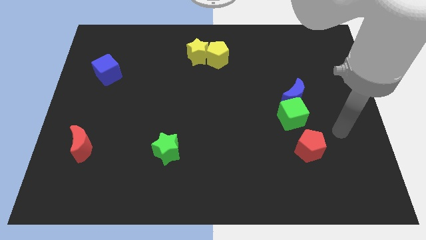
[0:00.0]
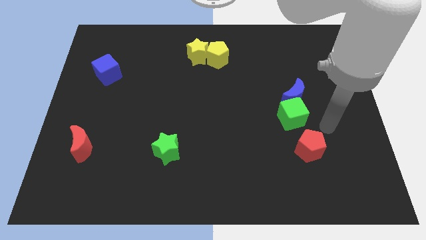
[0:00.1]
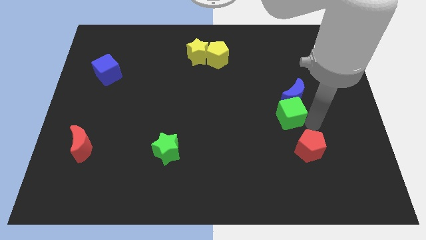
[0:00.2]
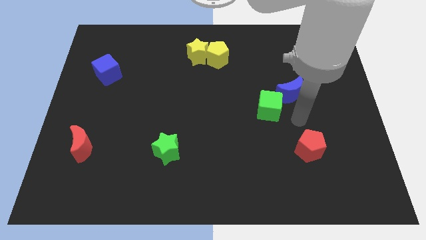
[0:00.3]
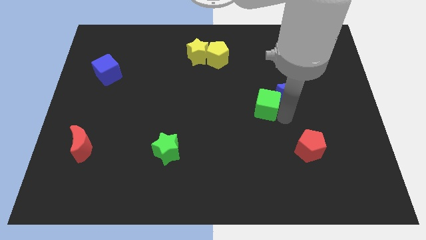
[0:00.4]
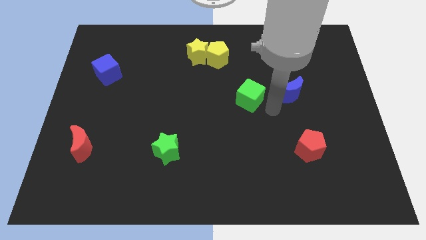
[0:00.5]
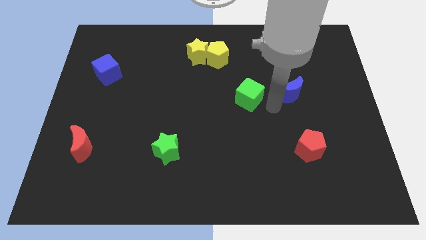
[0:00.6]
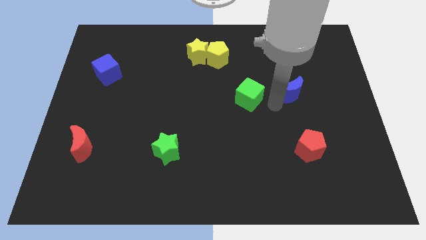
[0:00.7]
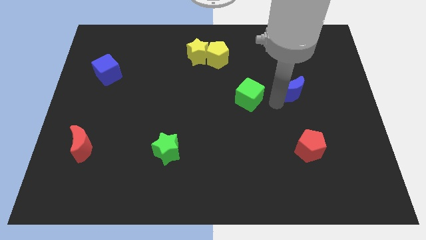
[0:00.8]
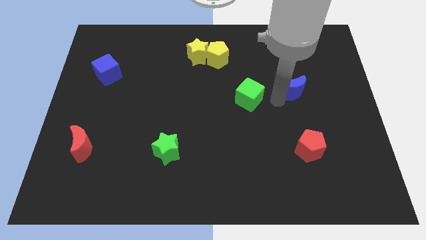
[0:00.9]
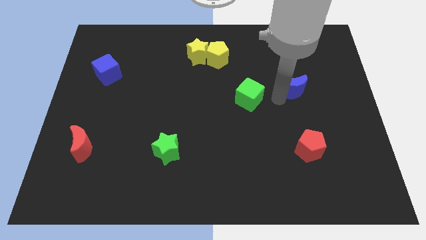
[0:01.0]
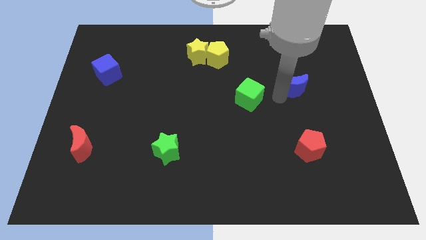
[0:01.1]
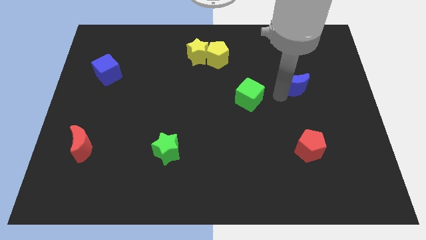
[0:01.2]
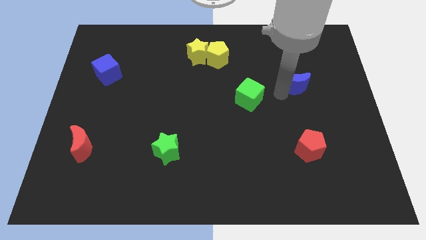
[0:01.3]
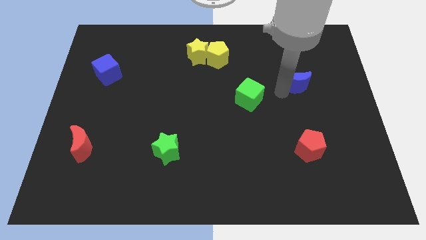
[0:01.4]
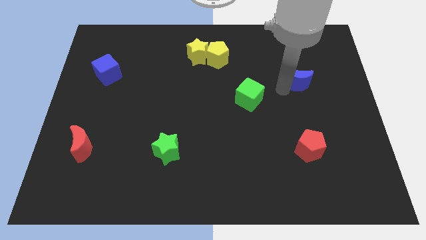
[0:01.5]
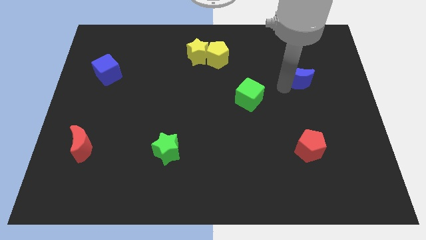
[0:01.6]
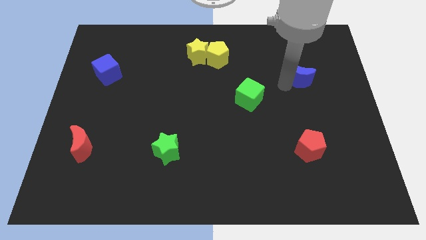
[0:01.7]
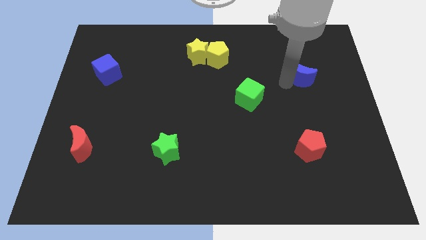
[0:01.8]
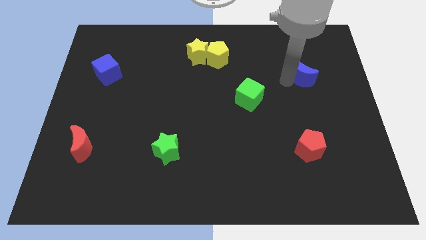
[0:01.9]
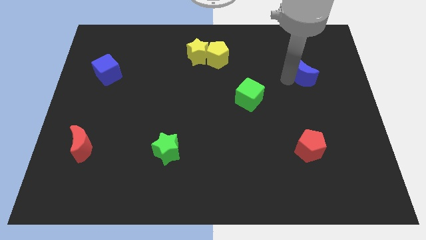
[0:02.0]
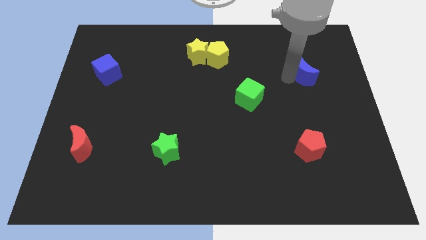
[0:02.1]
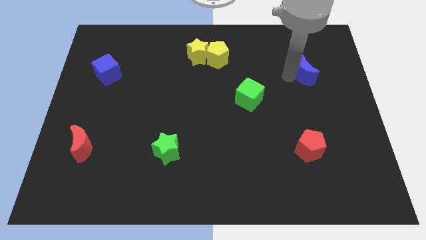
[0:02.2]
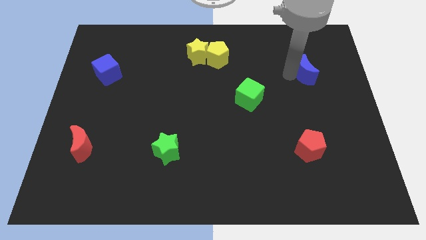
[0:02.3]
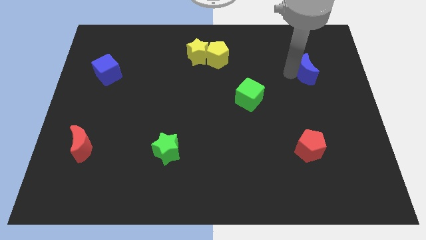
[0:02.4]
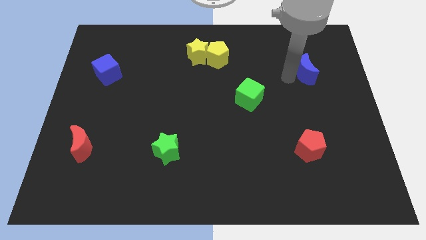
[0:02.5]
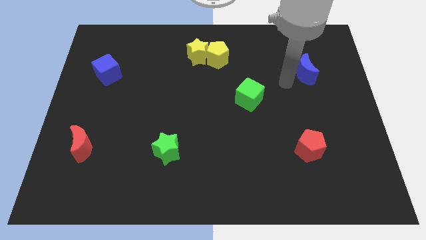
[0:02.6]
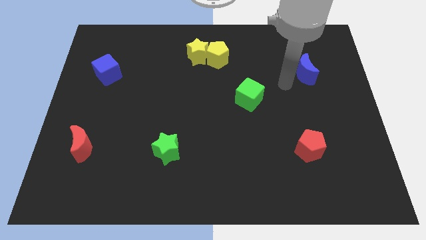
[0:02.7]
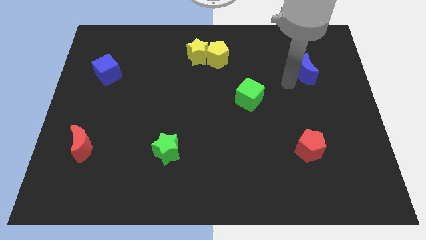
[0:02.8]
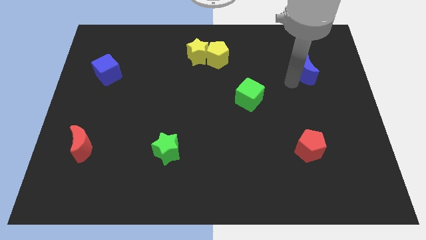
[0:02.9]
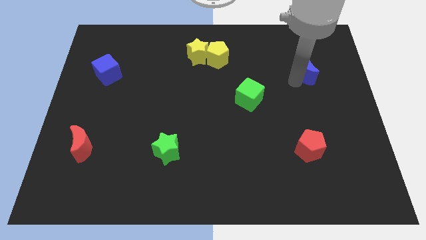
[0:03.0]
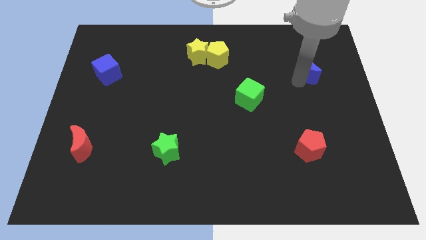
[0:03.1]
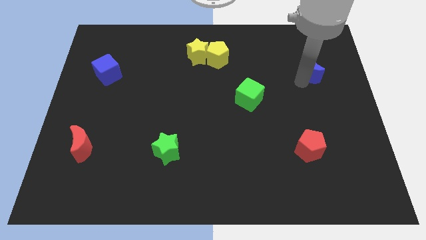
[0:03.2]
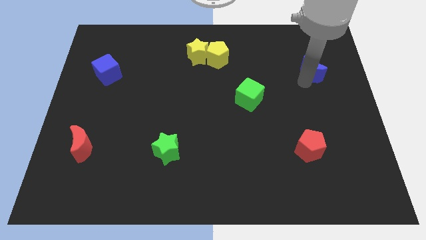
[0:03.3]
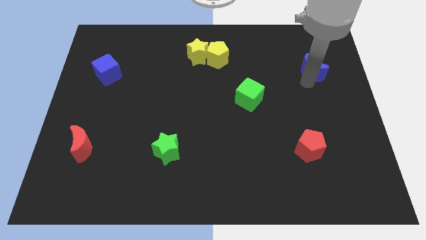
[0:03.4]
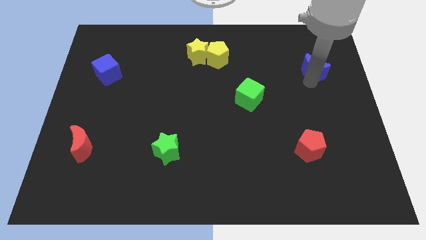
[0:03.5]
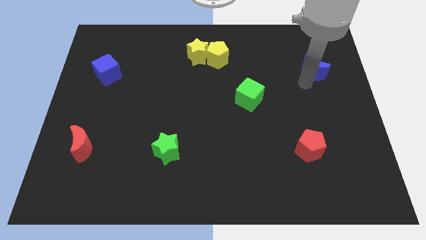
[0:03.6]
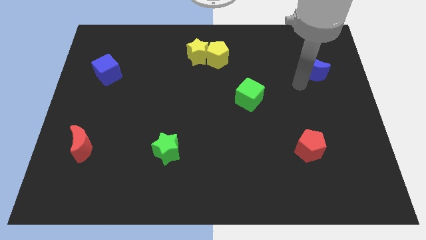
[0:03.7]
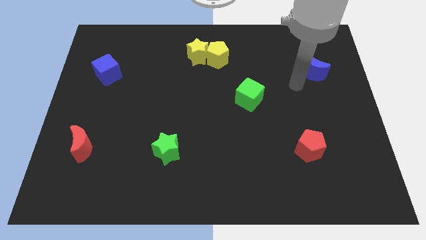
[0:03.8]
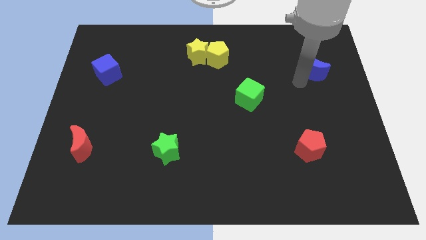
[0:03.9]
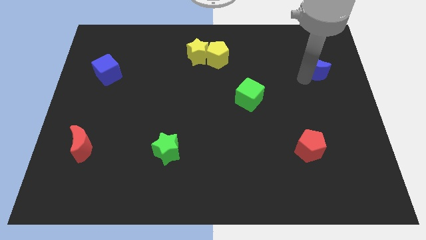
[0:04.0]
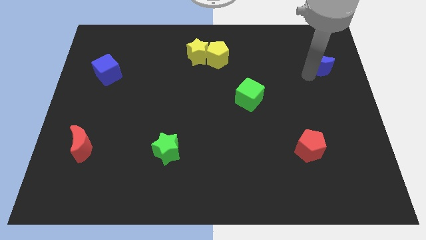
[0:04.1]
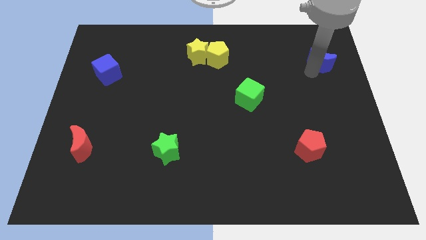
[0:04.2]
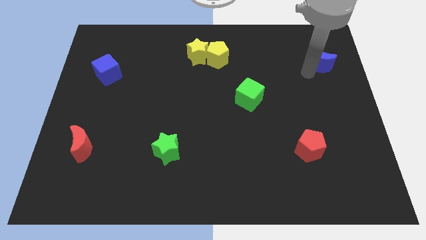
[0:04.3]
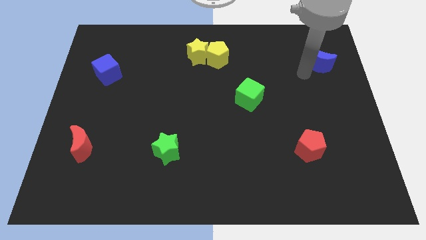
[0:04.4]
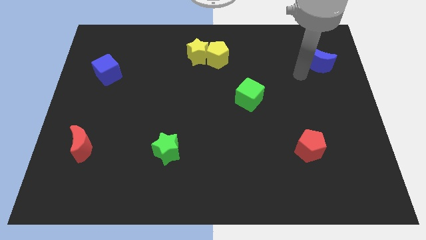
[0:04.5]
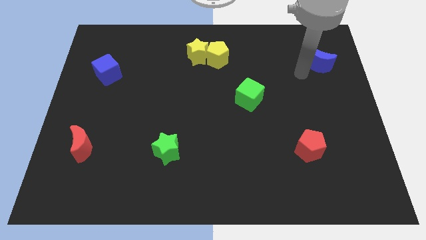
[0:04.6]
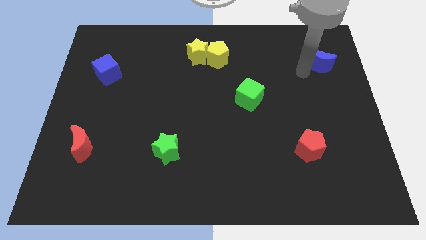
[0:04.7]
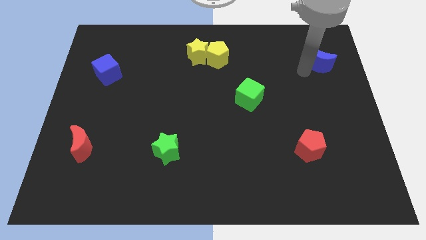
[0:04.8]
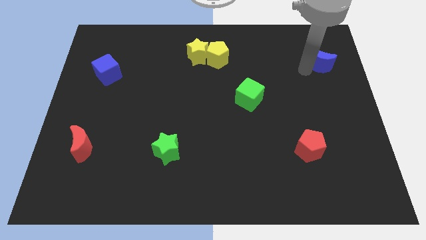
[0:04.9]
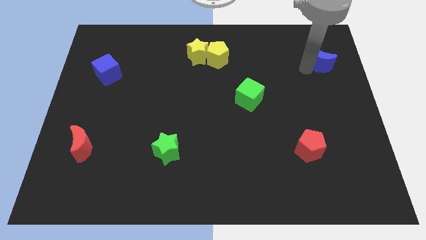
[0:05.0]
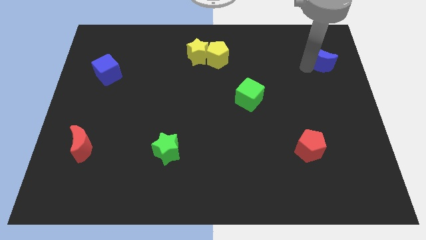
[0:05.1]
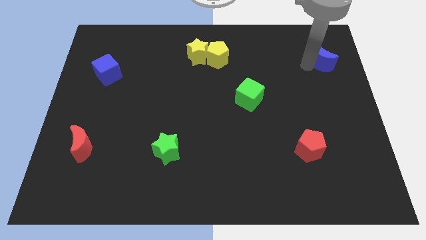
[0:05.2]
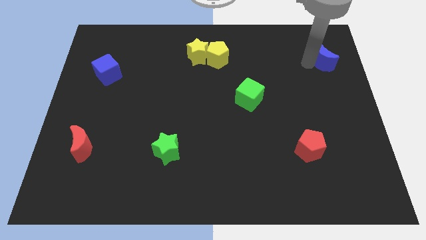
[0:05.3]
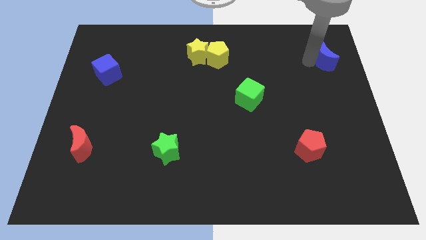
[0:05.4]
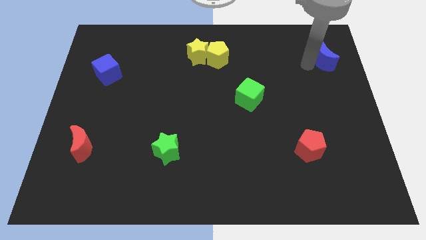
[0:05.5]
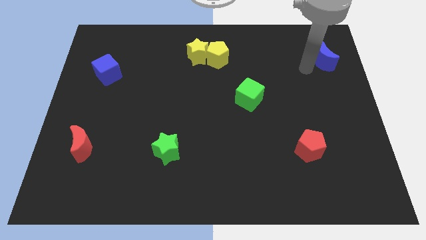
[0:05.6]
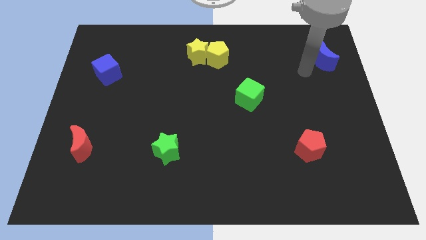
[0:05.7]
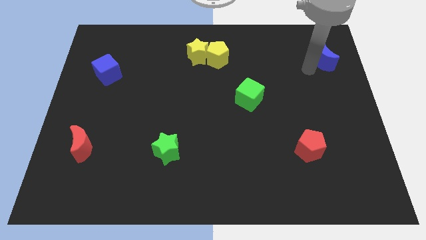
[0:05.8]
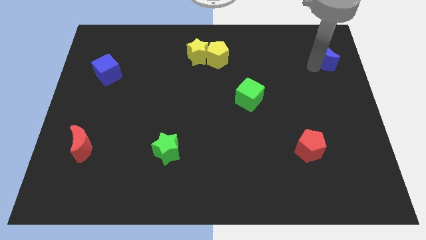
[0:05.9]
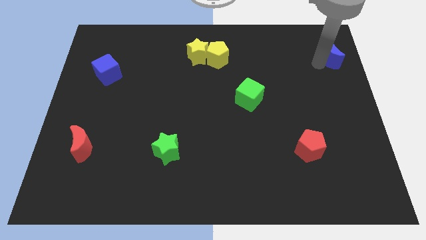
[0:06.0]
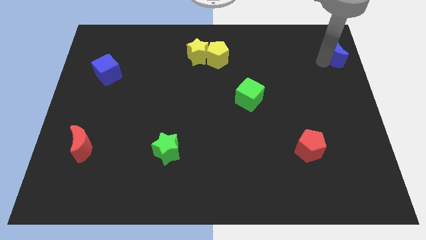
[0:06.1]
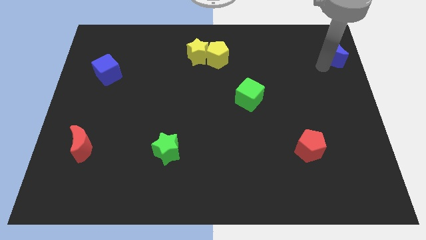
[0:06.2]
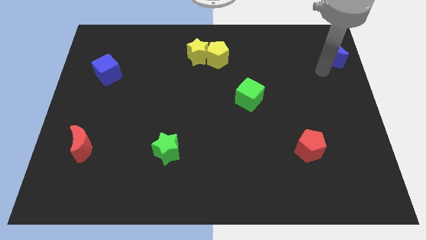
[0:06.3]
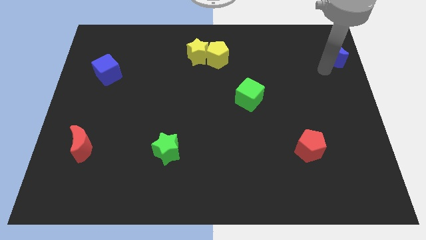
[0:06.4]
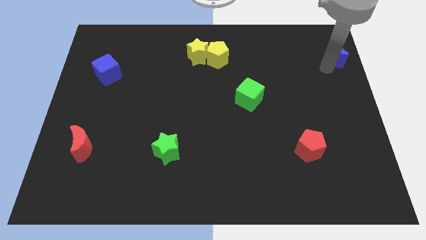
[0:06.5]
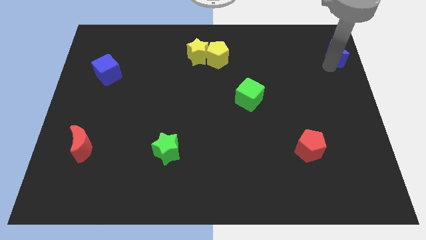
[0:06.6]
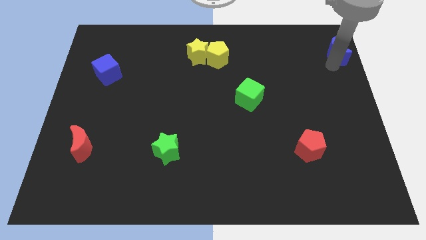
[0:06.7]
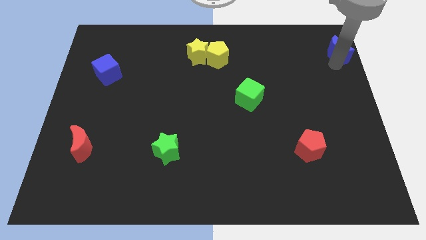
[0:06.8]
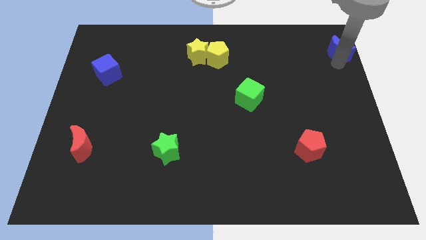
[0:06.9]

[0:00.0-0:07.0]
slide the blue moon to the top right of the board
